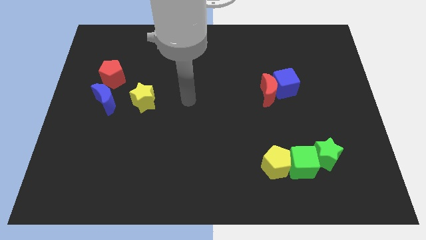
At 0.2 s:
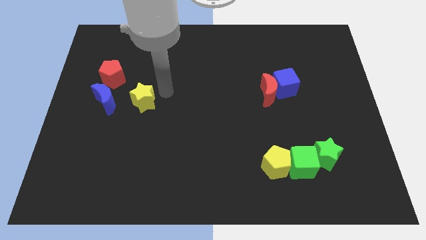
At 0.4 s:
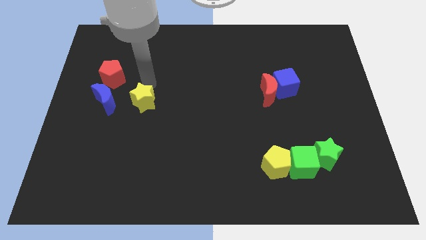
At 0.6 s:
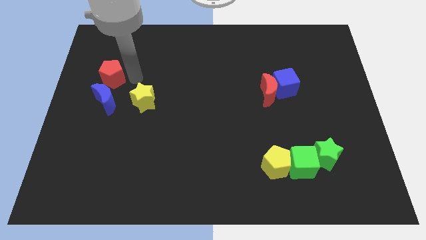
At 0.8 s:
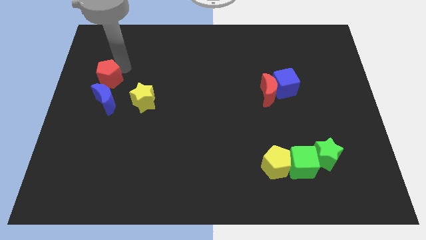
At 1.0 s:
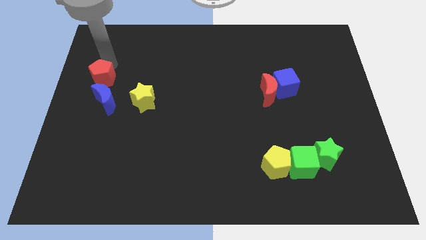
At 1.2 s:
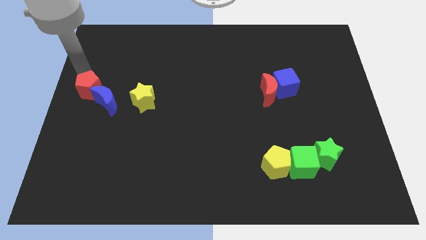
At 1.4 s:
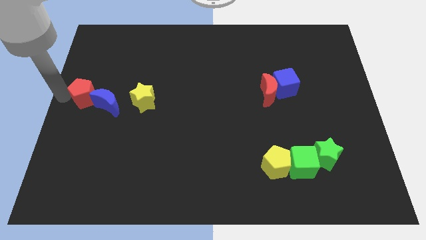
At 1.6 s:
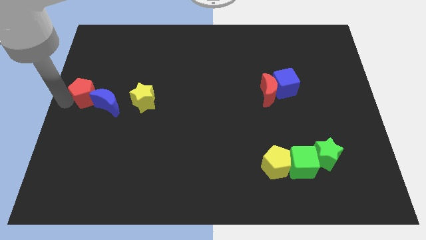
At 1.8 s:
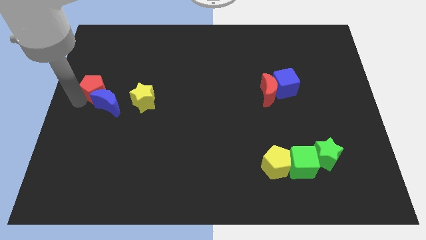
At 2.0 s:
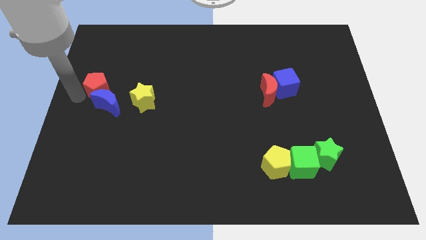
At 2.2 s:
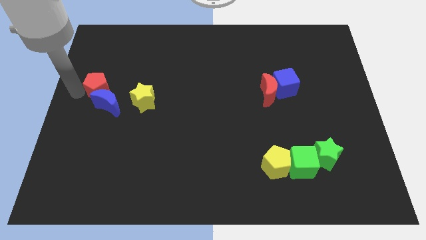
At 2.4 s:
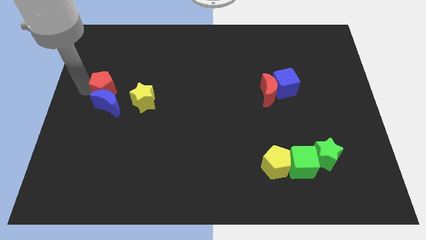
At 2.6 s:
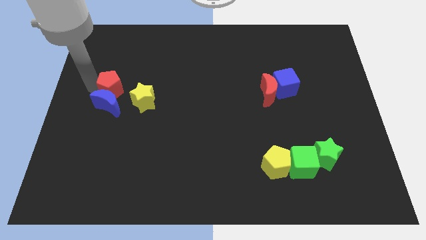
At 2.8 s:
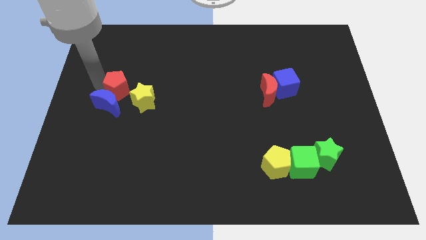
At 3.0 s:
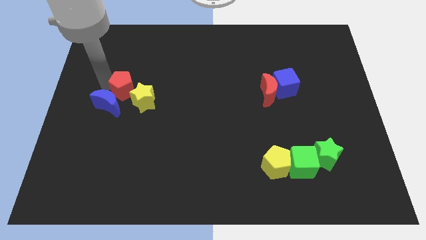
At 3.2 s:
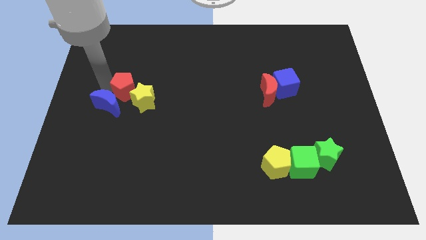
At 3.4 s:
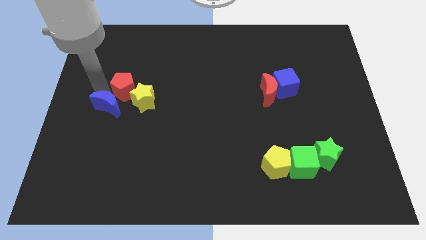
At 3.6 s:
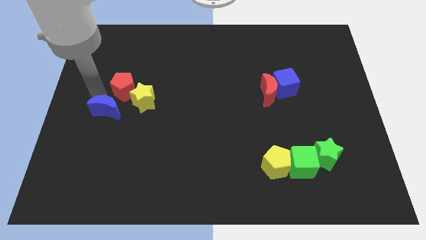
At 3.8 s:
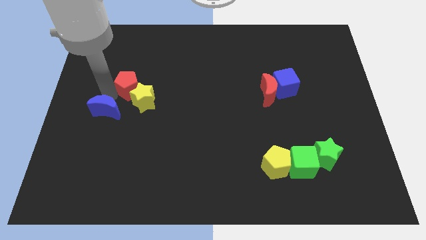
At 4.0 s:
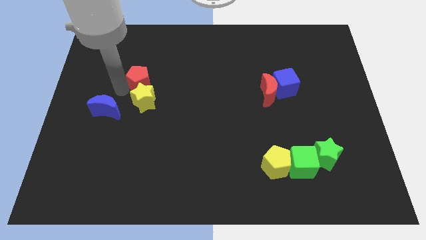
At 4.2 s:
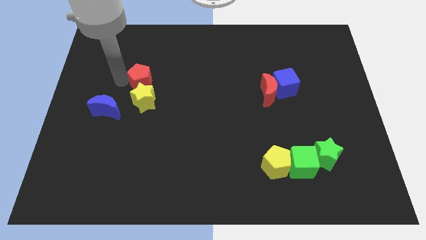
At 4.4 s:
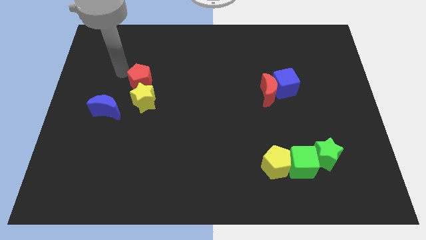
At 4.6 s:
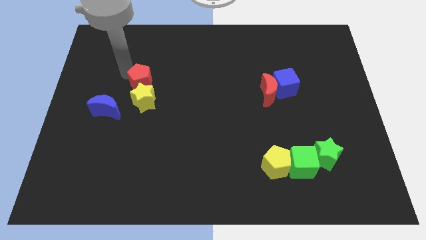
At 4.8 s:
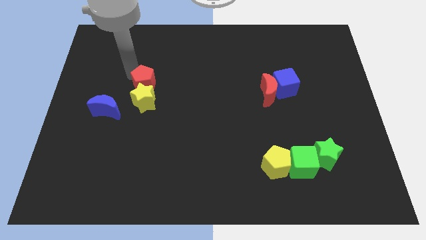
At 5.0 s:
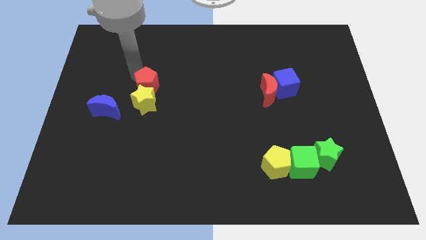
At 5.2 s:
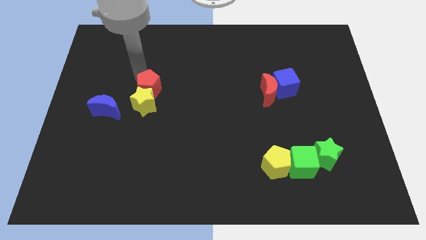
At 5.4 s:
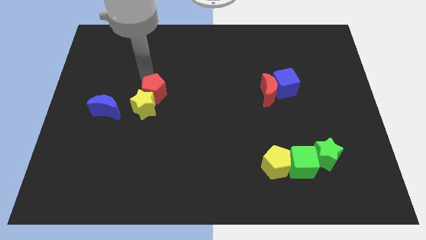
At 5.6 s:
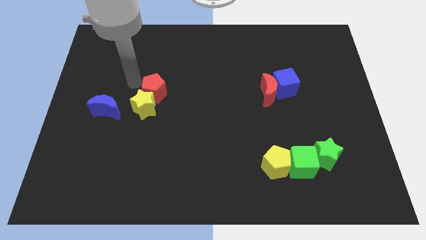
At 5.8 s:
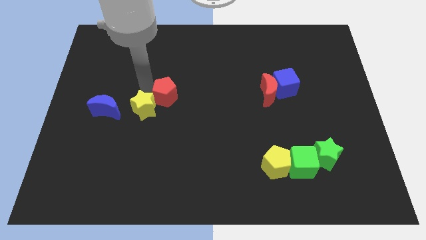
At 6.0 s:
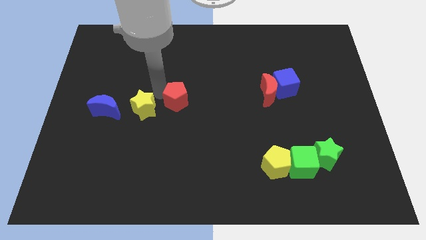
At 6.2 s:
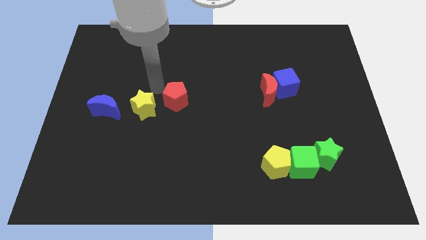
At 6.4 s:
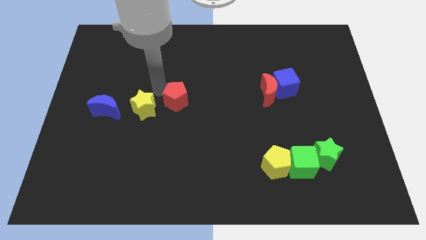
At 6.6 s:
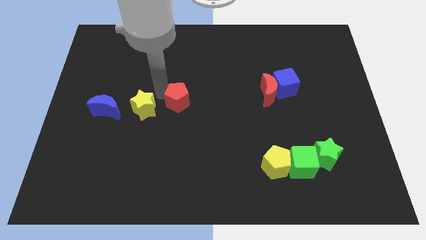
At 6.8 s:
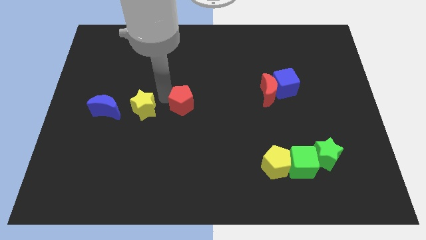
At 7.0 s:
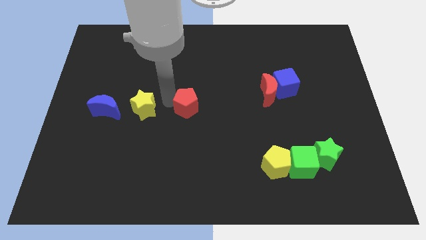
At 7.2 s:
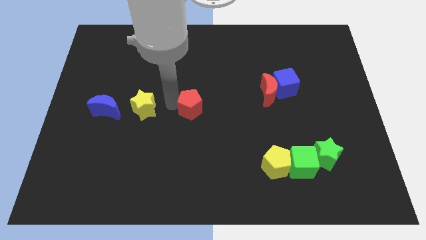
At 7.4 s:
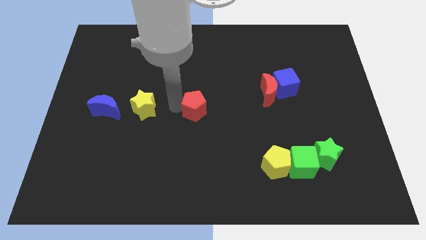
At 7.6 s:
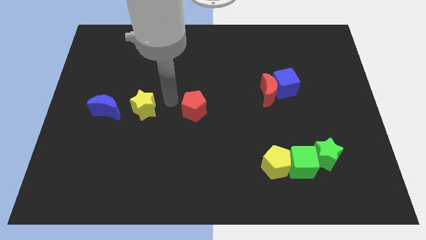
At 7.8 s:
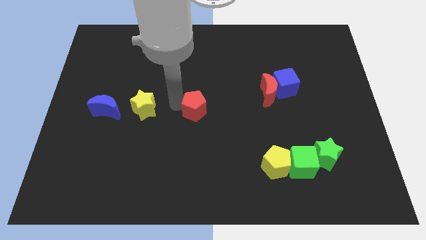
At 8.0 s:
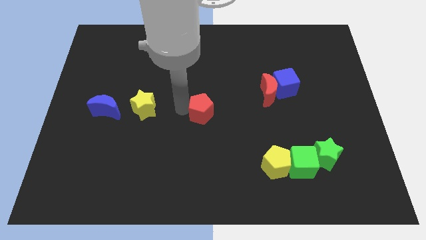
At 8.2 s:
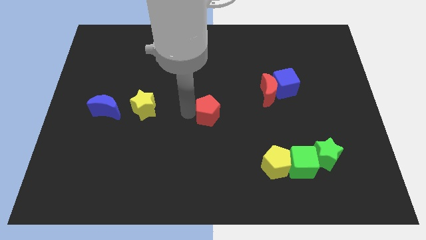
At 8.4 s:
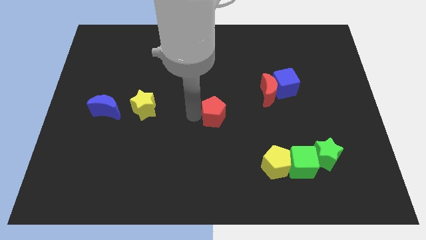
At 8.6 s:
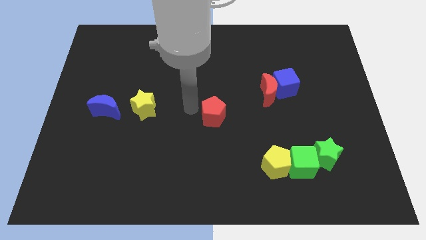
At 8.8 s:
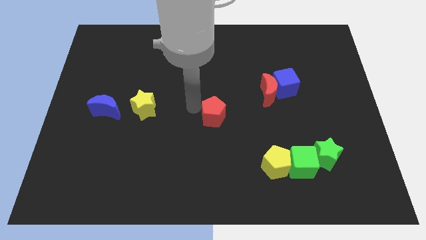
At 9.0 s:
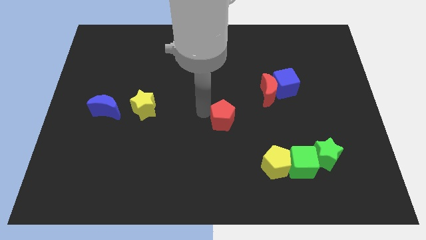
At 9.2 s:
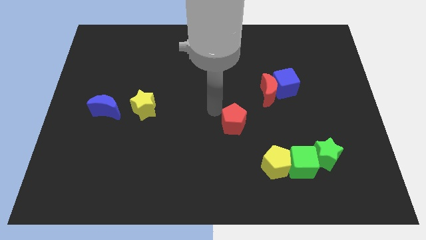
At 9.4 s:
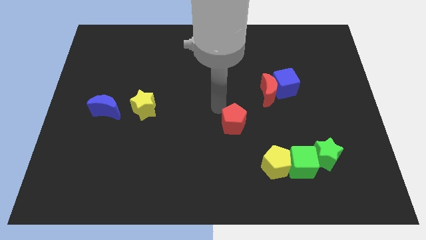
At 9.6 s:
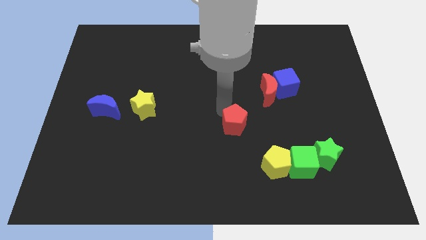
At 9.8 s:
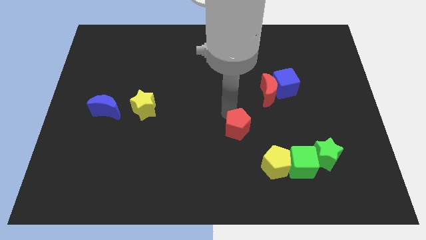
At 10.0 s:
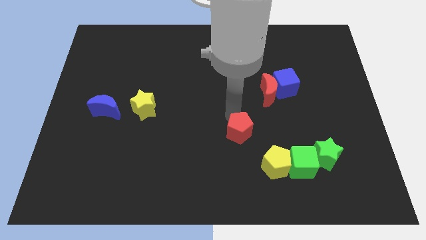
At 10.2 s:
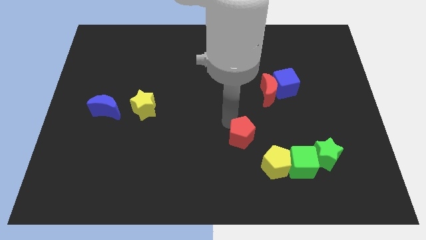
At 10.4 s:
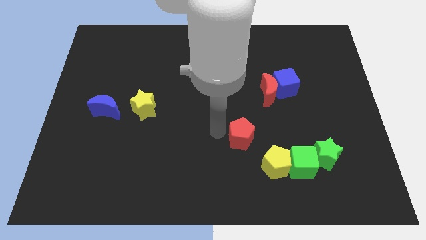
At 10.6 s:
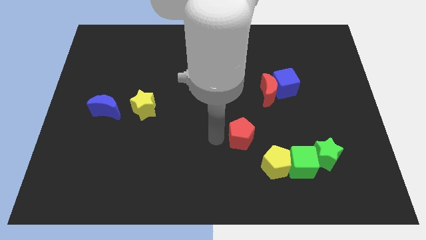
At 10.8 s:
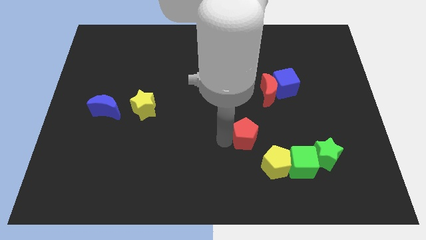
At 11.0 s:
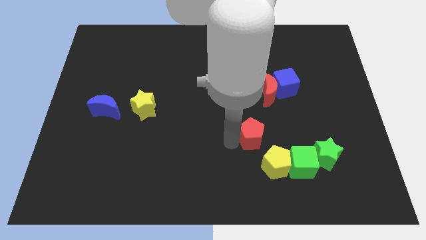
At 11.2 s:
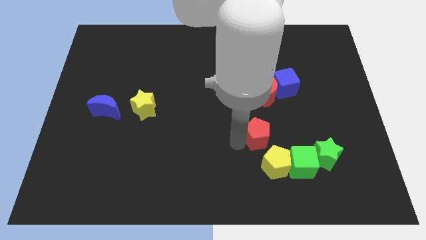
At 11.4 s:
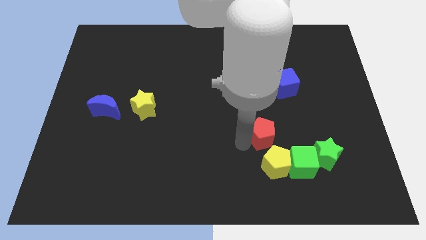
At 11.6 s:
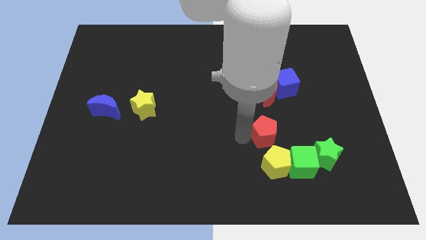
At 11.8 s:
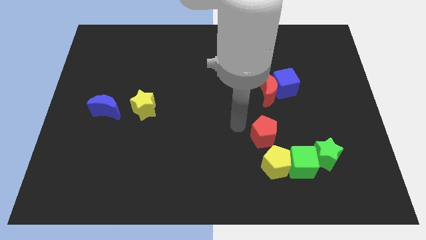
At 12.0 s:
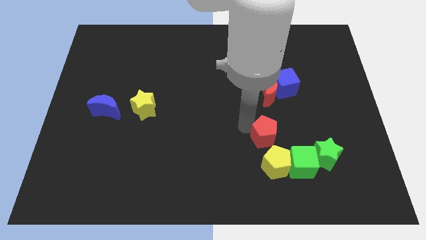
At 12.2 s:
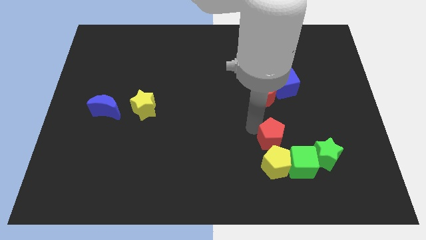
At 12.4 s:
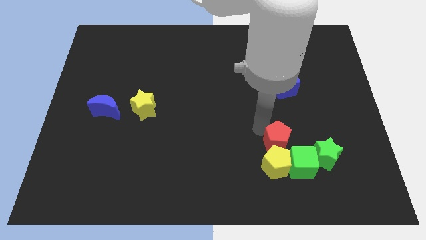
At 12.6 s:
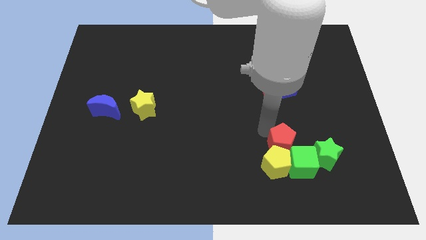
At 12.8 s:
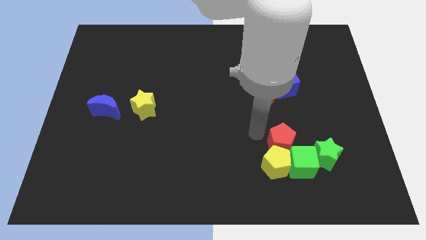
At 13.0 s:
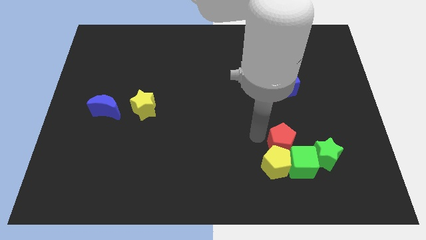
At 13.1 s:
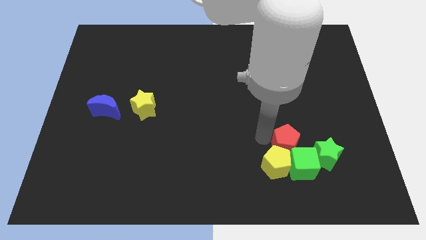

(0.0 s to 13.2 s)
put the red pentagon next to the green cube
